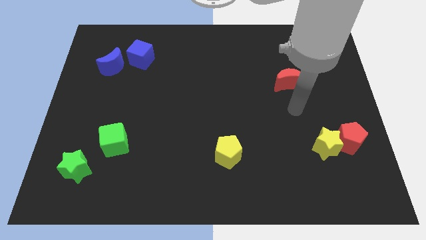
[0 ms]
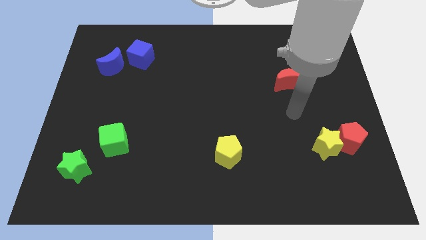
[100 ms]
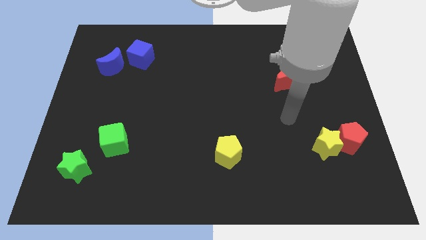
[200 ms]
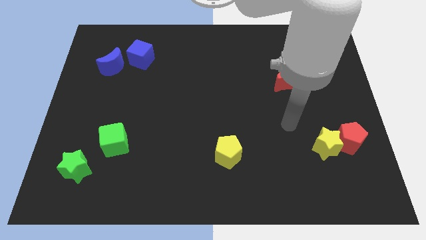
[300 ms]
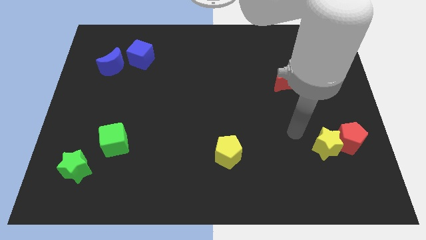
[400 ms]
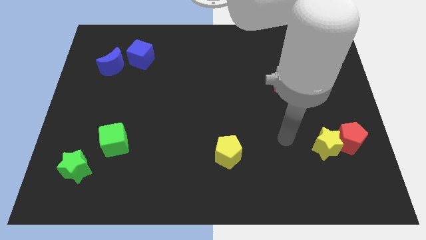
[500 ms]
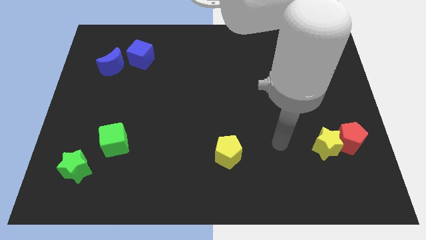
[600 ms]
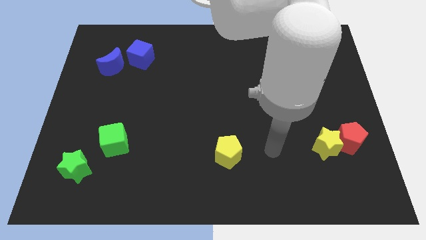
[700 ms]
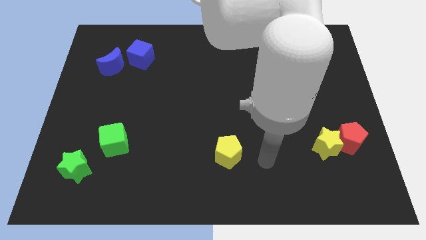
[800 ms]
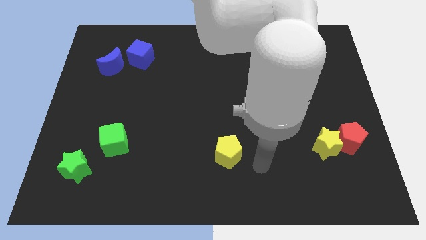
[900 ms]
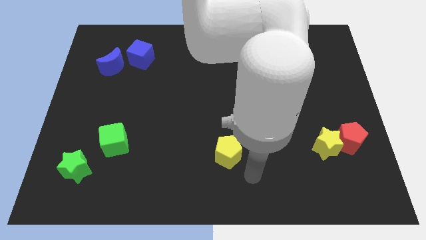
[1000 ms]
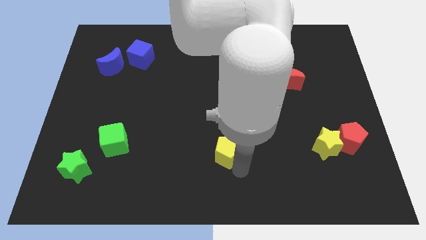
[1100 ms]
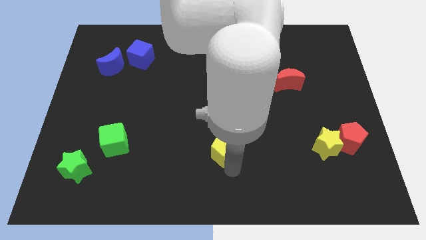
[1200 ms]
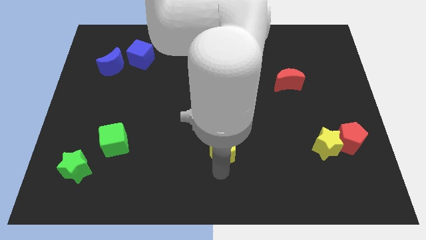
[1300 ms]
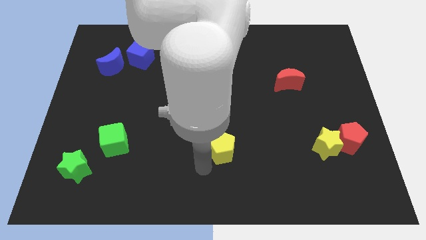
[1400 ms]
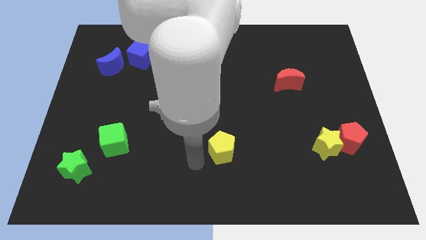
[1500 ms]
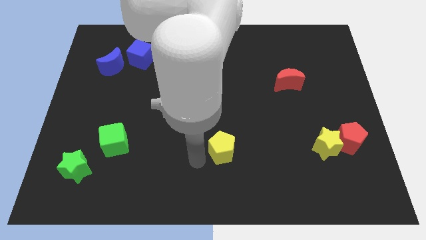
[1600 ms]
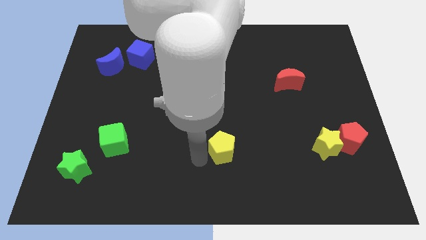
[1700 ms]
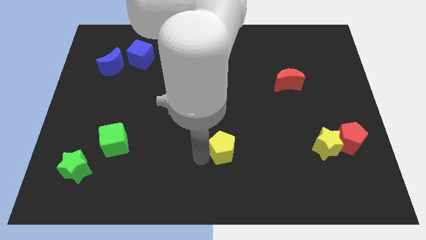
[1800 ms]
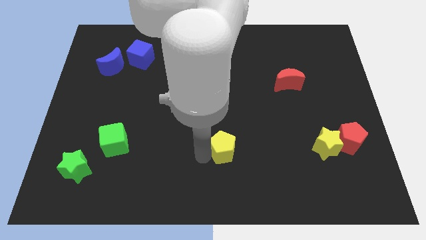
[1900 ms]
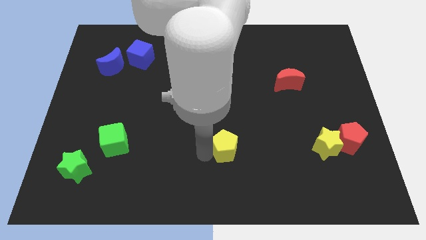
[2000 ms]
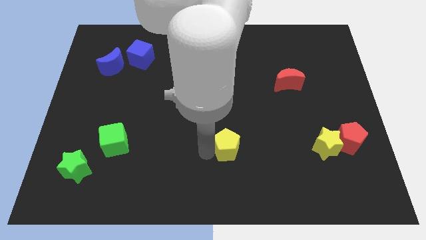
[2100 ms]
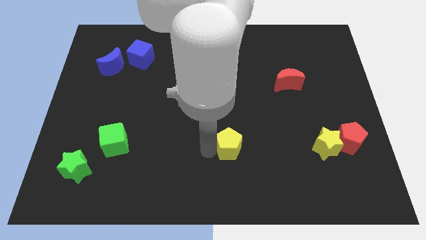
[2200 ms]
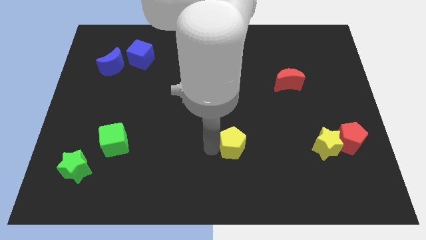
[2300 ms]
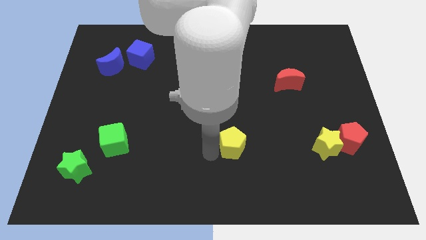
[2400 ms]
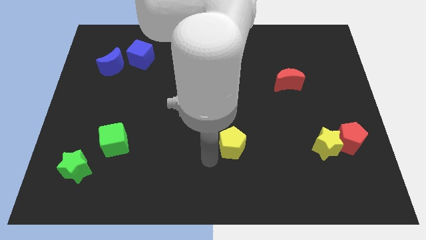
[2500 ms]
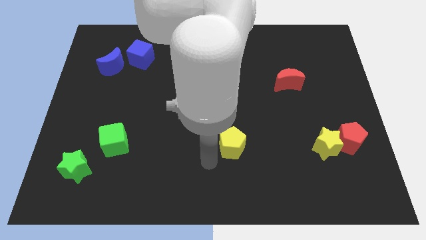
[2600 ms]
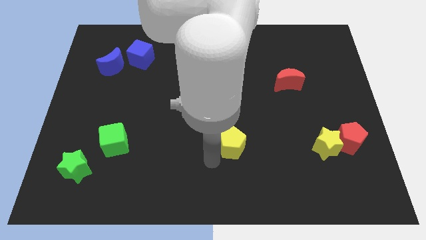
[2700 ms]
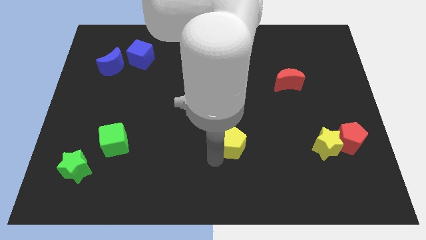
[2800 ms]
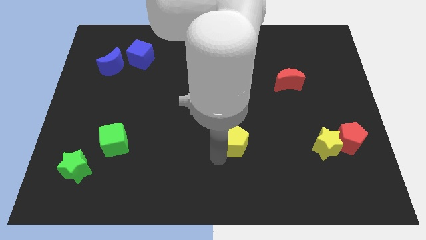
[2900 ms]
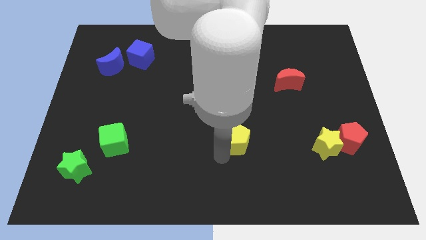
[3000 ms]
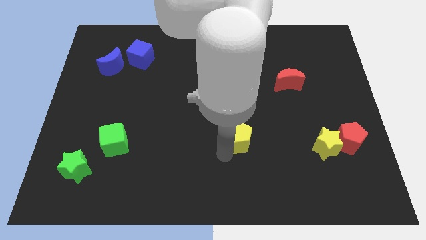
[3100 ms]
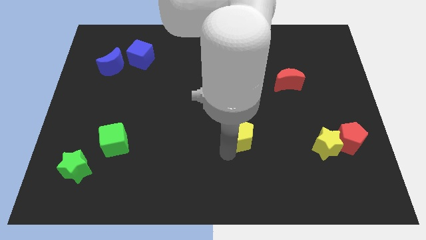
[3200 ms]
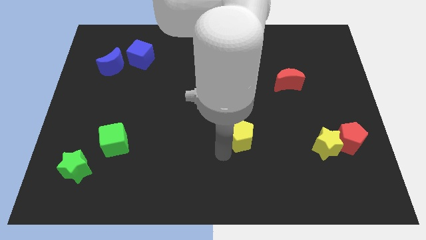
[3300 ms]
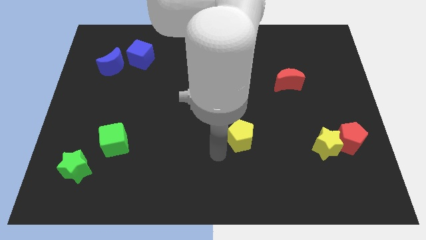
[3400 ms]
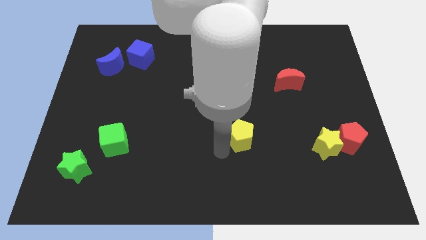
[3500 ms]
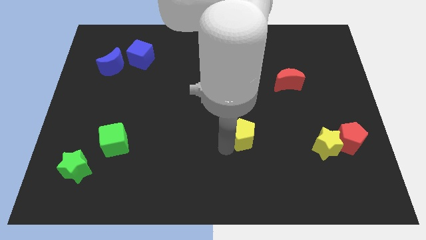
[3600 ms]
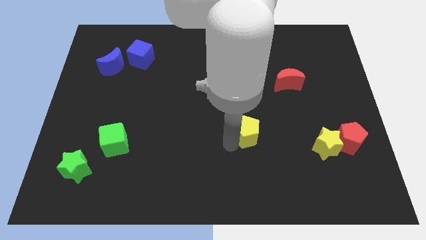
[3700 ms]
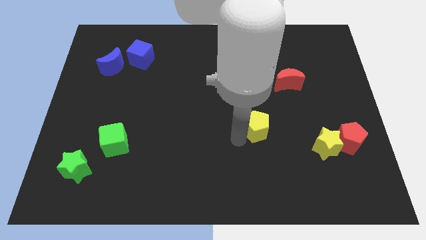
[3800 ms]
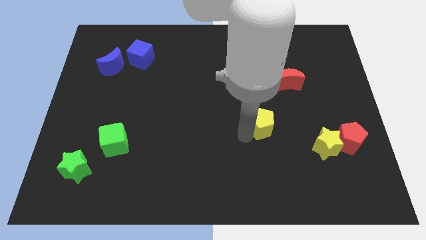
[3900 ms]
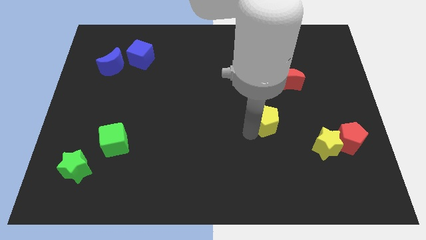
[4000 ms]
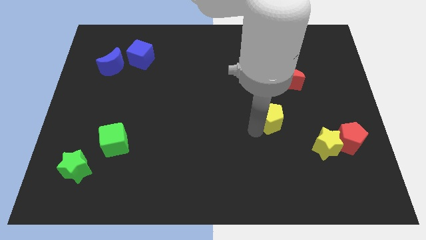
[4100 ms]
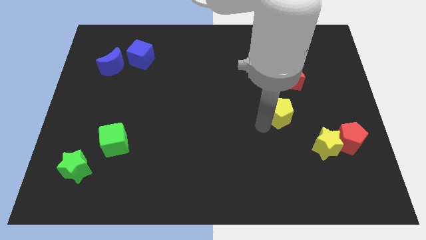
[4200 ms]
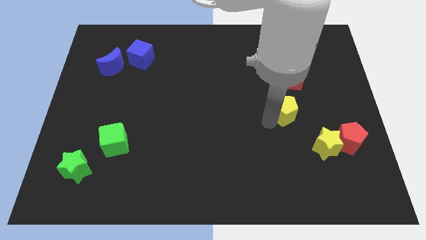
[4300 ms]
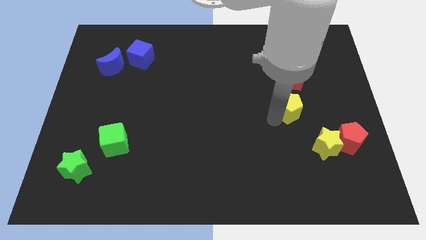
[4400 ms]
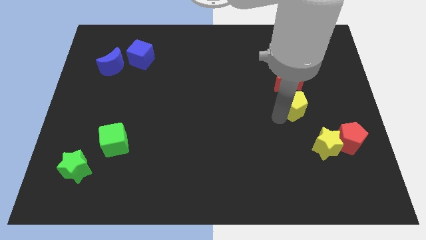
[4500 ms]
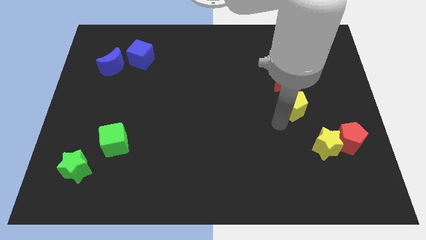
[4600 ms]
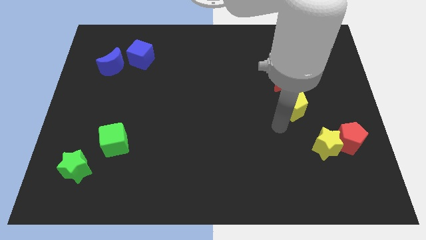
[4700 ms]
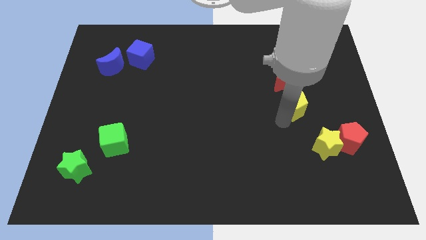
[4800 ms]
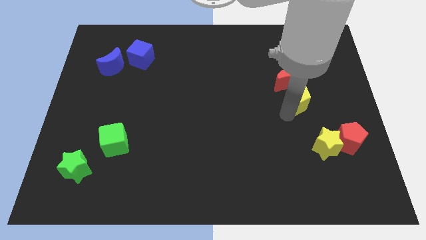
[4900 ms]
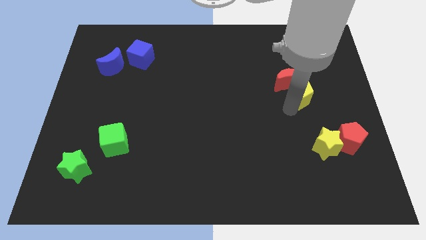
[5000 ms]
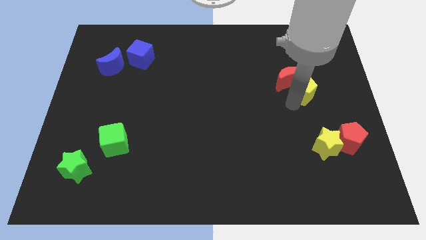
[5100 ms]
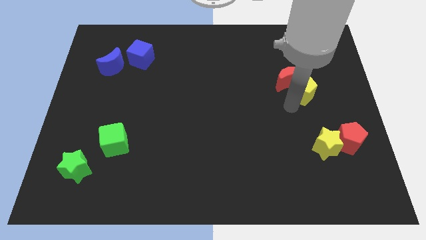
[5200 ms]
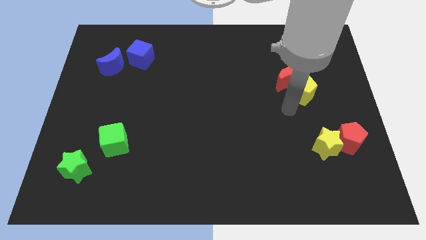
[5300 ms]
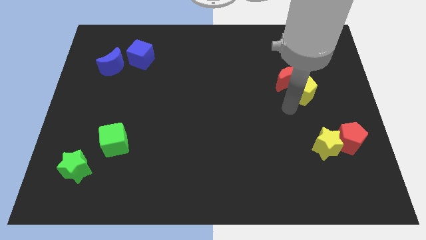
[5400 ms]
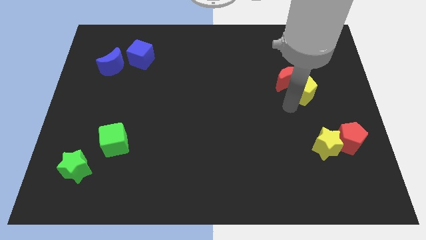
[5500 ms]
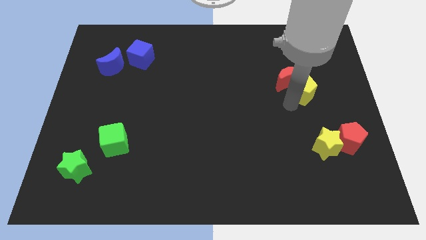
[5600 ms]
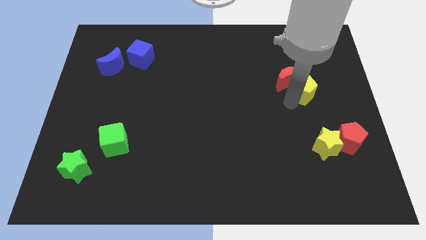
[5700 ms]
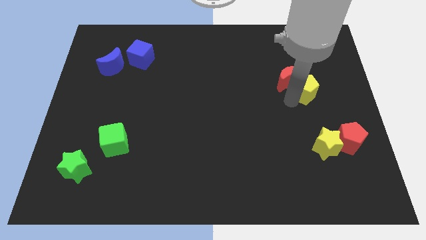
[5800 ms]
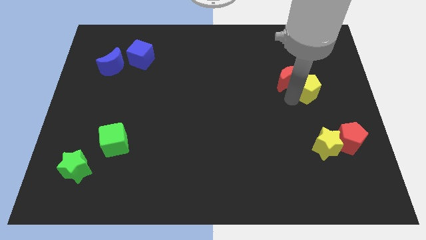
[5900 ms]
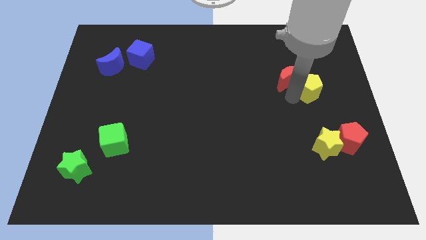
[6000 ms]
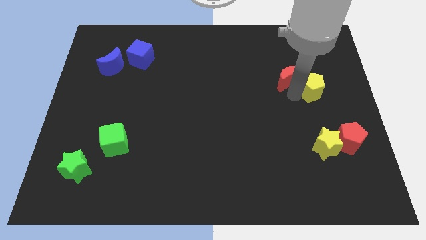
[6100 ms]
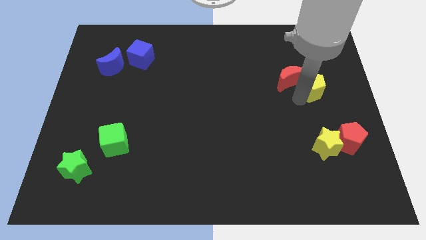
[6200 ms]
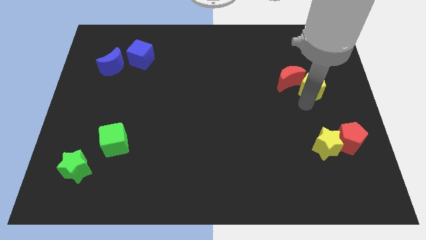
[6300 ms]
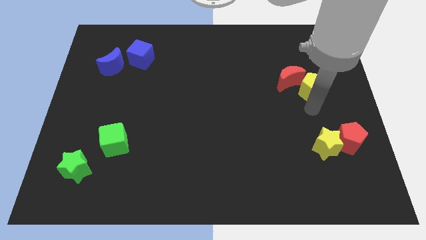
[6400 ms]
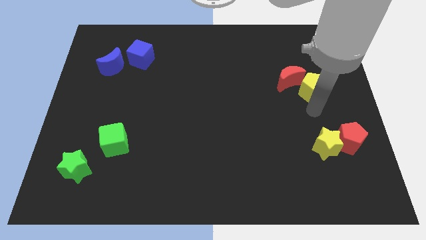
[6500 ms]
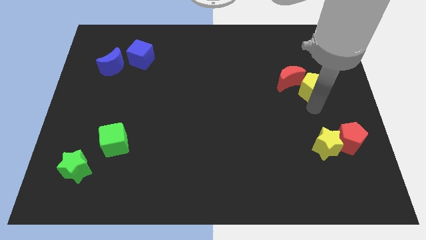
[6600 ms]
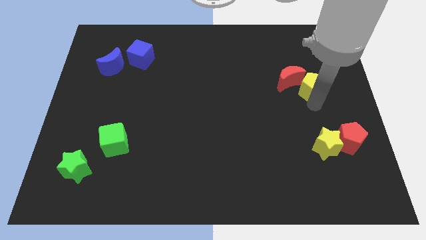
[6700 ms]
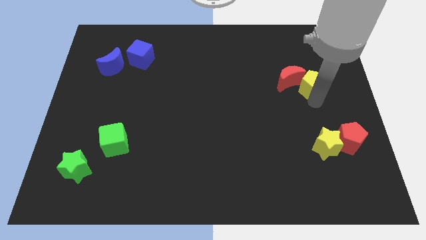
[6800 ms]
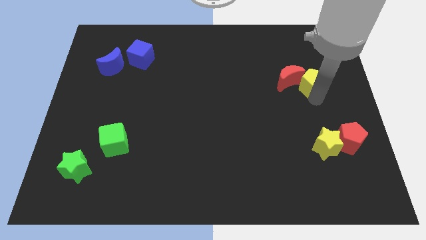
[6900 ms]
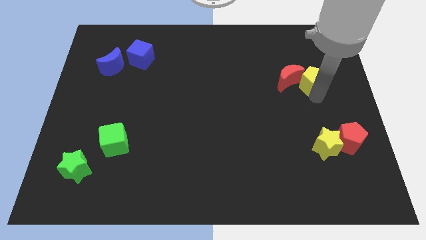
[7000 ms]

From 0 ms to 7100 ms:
move the yellow pentagon diagonally up and to the right of the red moon
